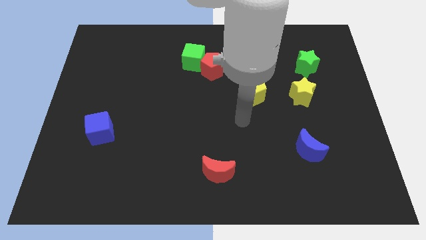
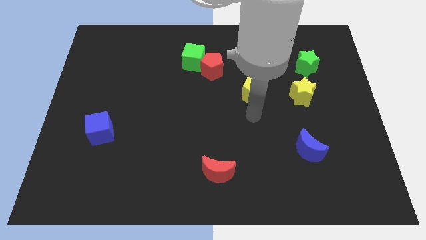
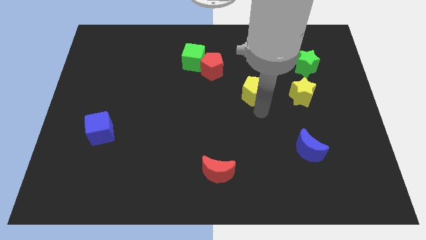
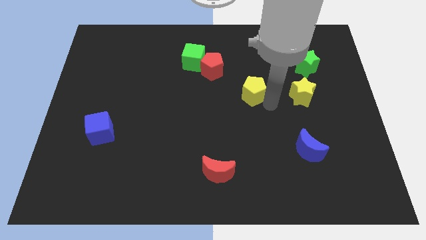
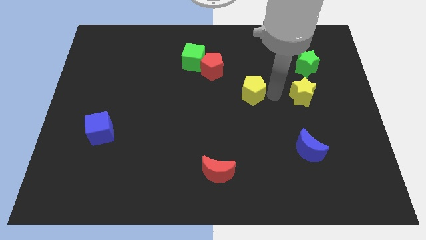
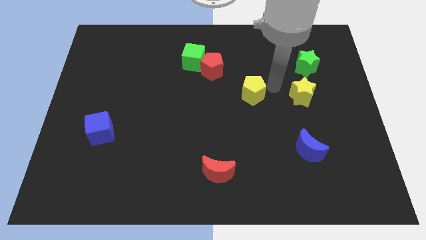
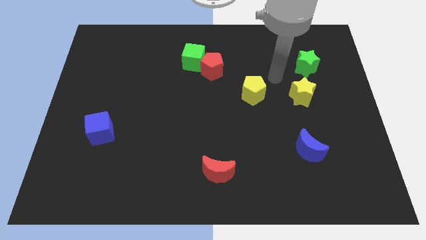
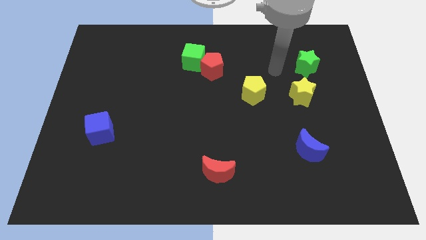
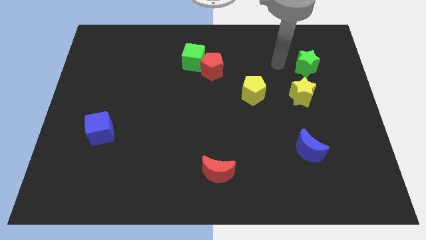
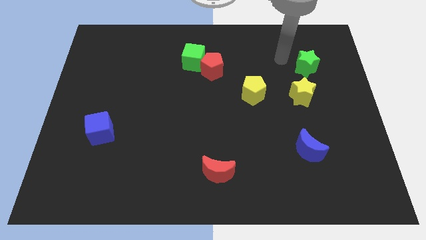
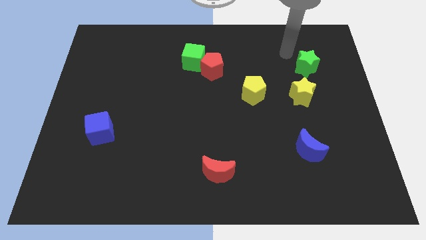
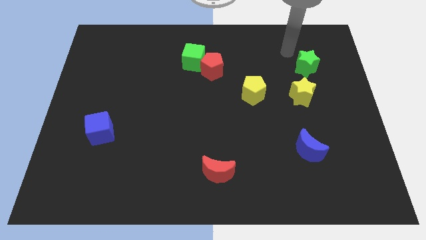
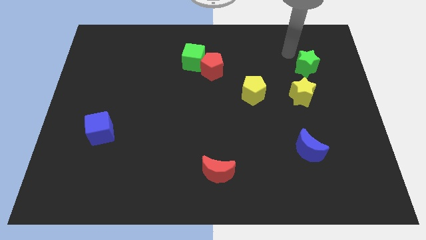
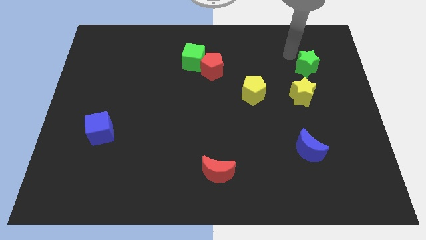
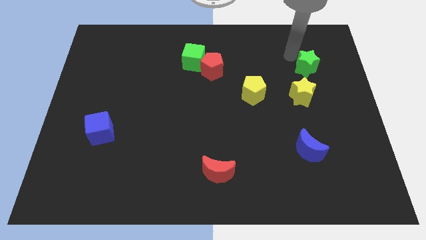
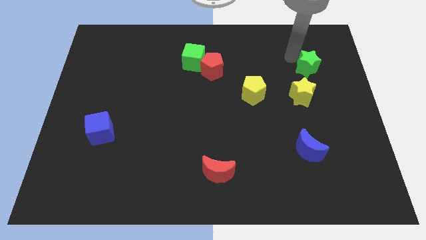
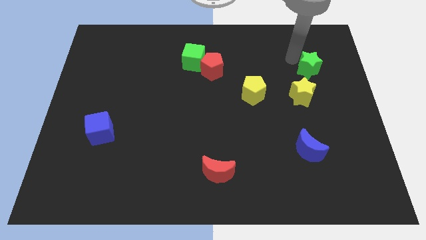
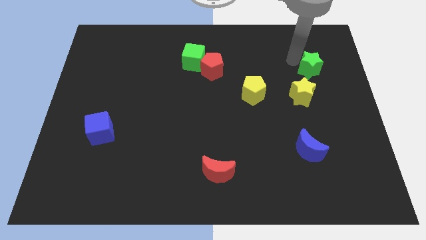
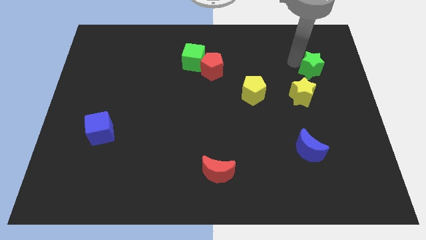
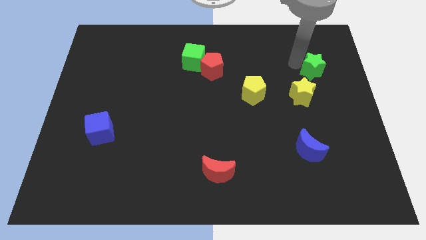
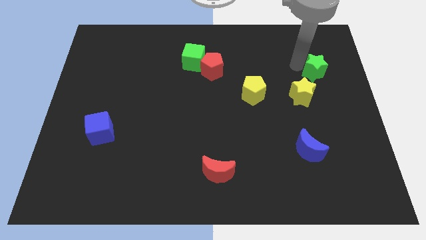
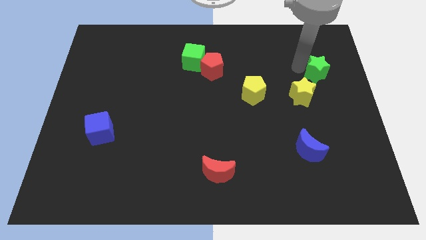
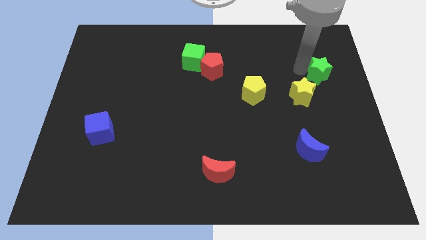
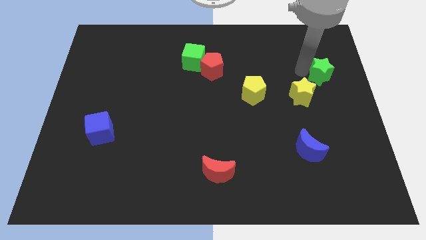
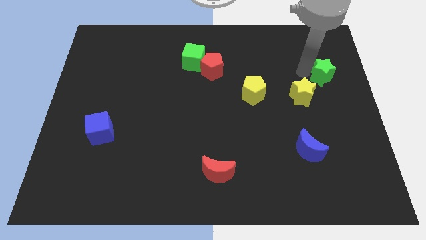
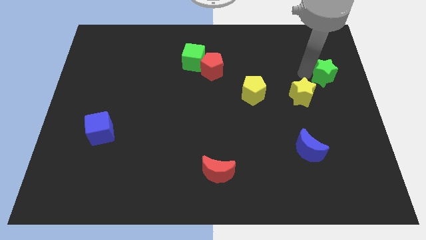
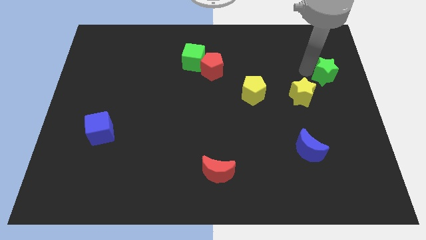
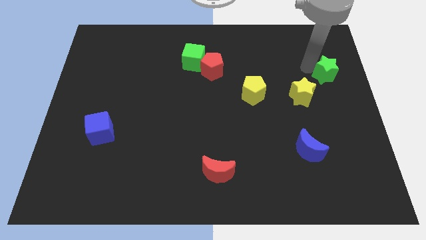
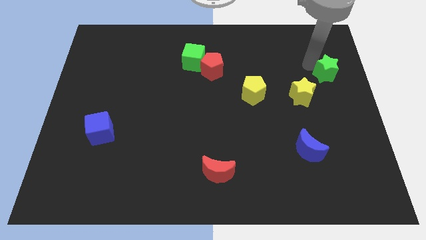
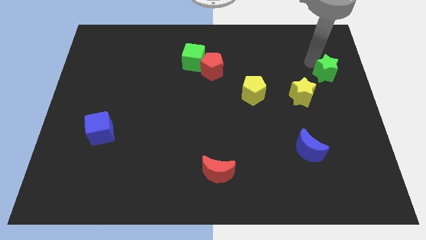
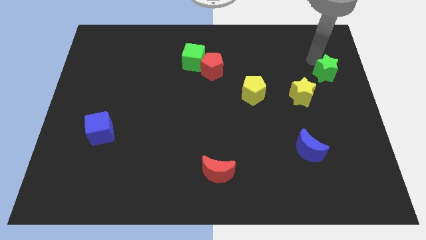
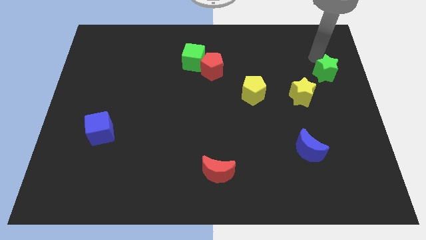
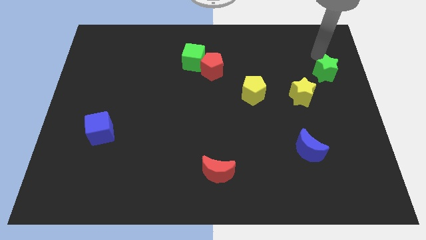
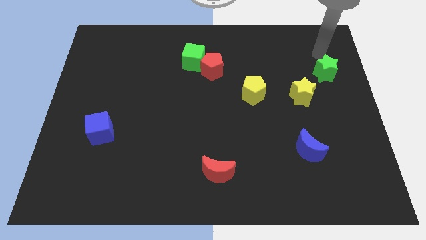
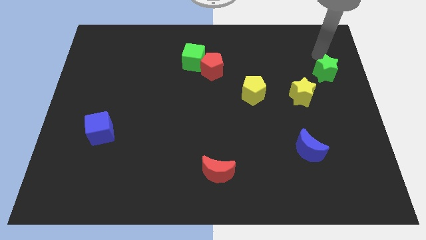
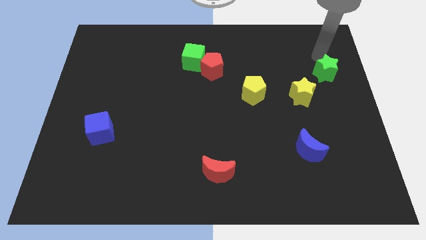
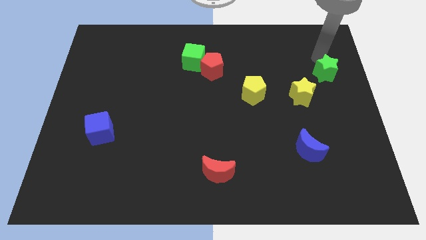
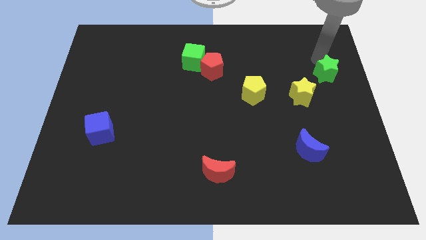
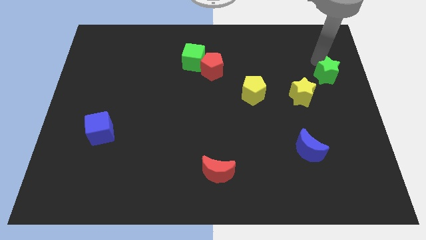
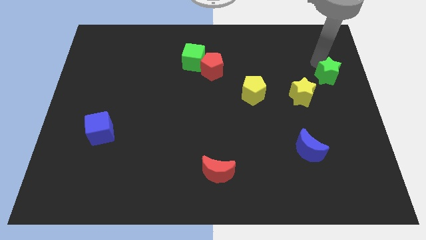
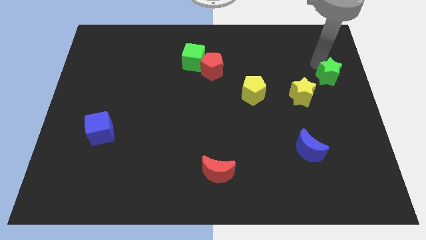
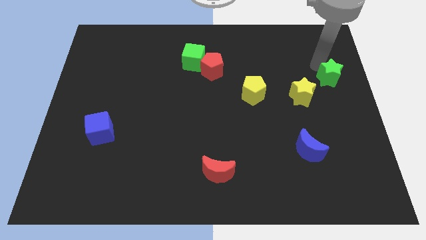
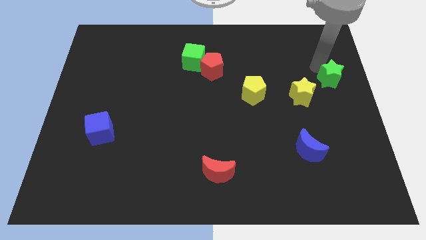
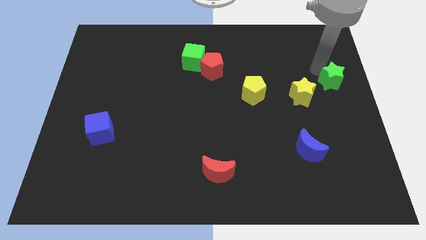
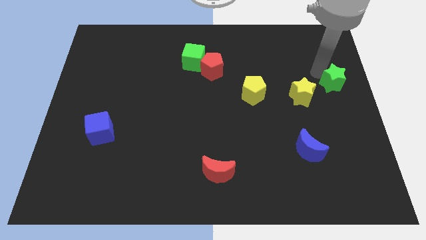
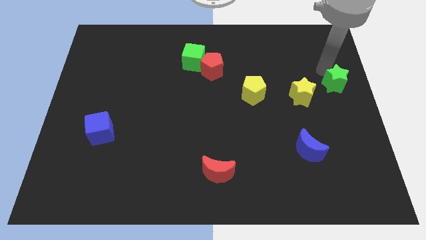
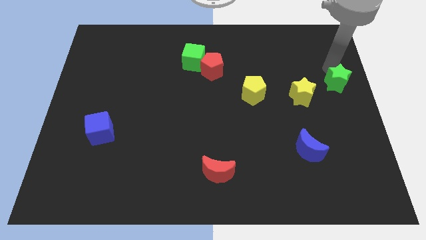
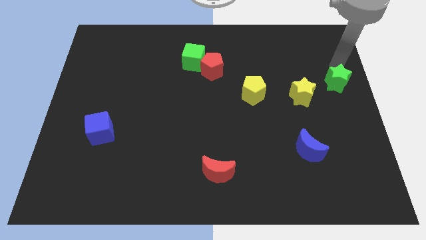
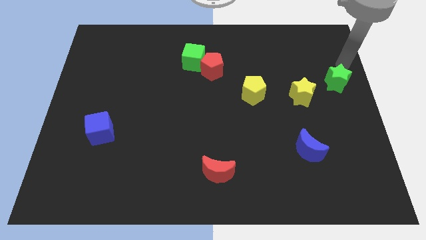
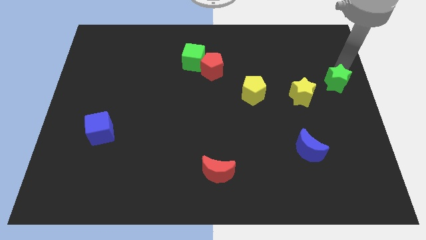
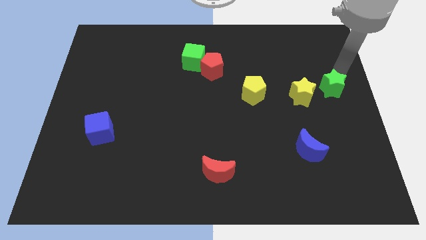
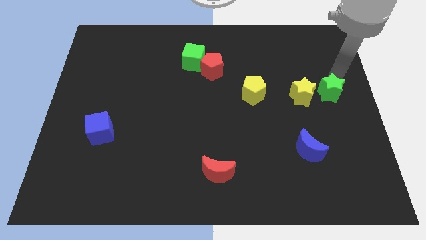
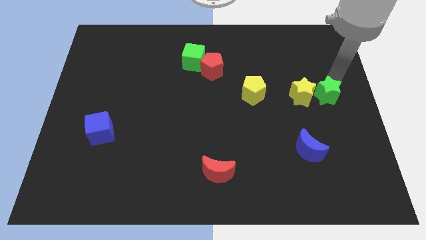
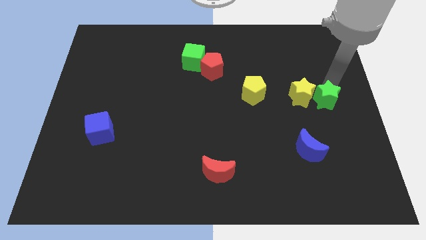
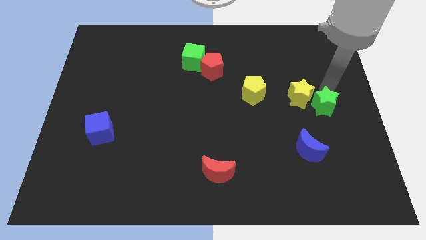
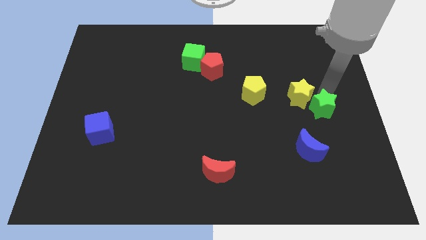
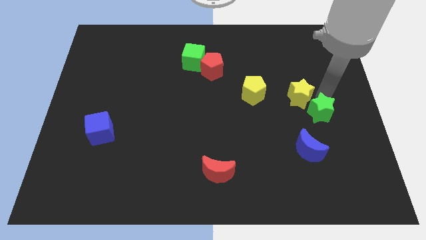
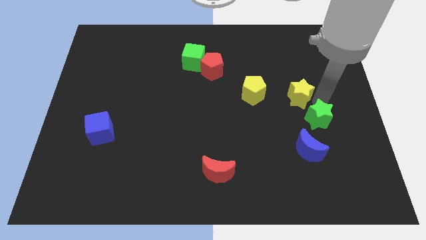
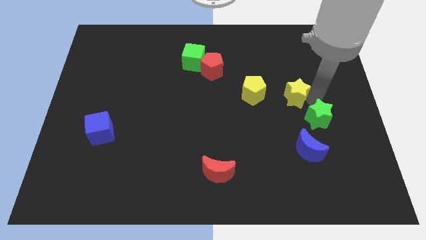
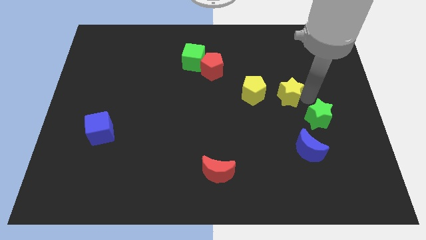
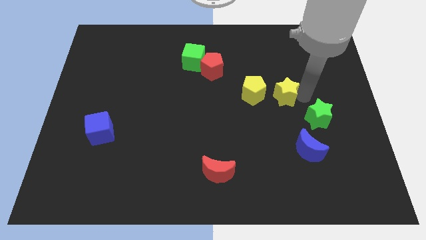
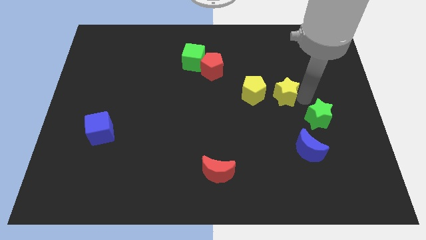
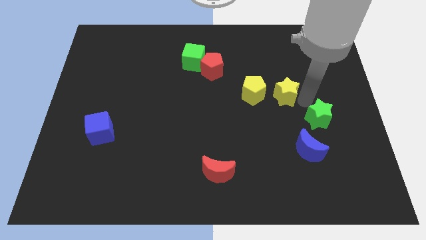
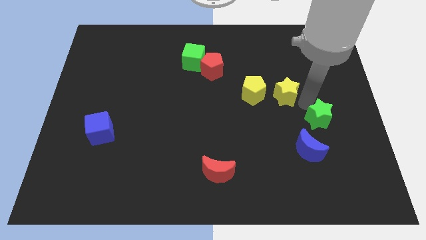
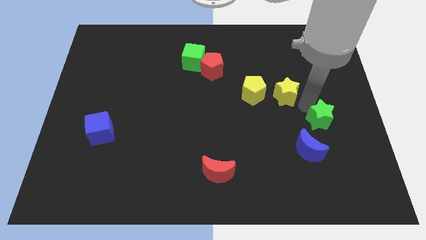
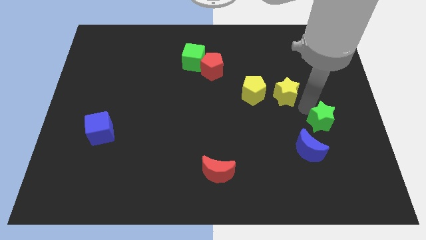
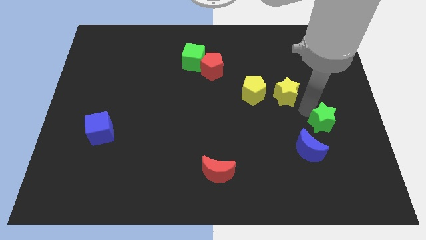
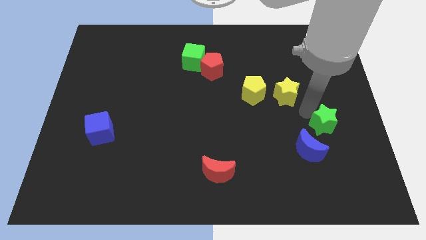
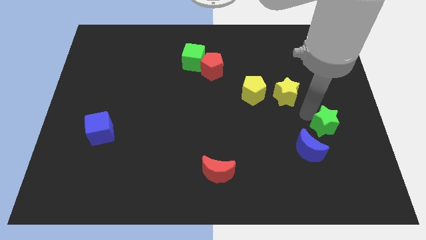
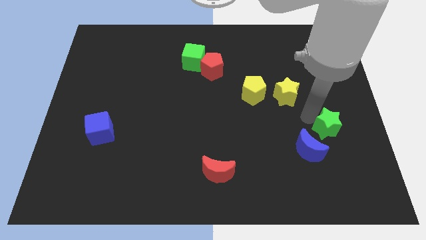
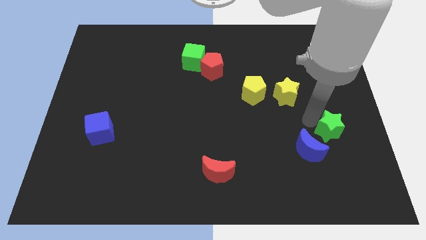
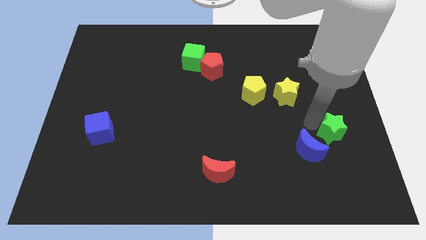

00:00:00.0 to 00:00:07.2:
push the green star down

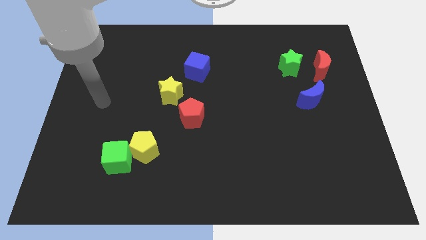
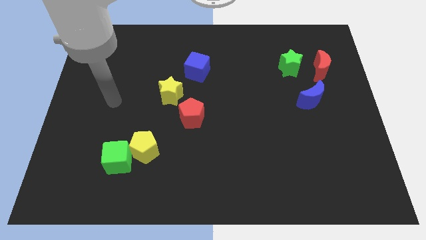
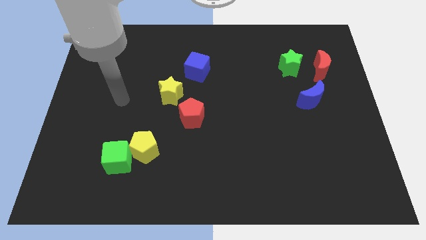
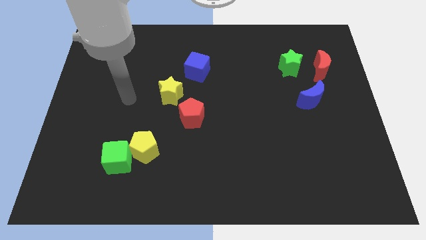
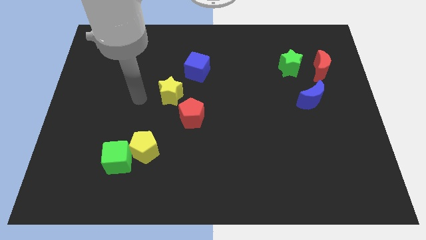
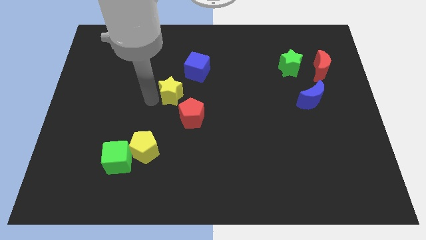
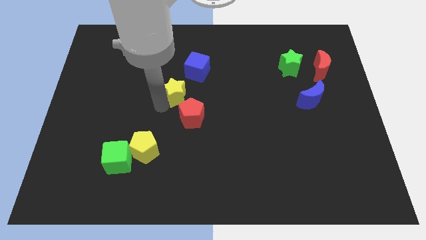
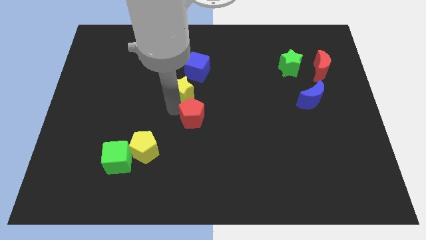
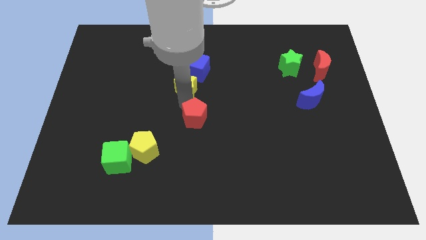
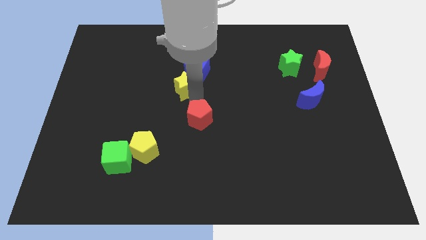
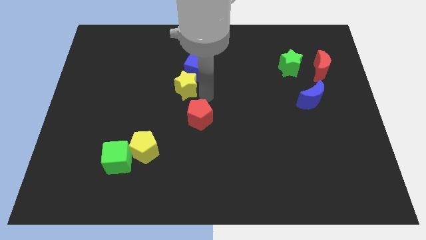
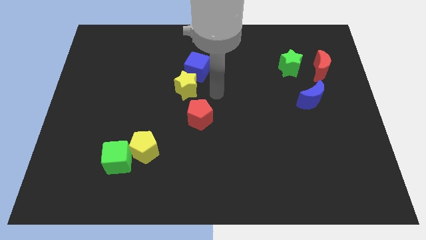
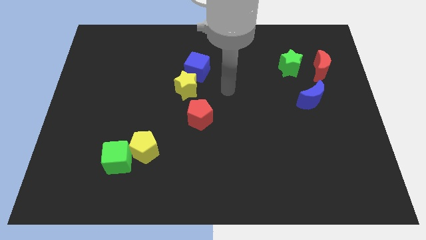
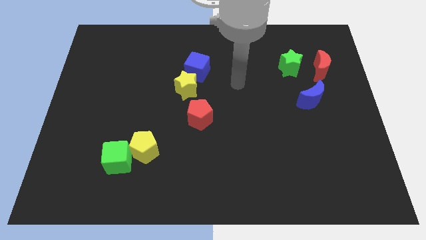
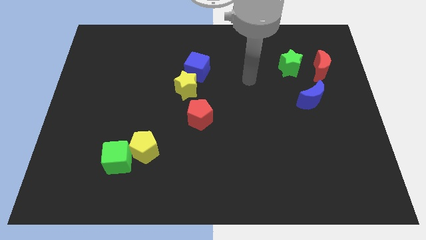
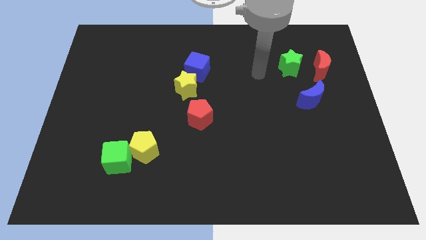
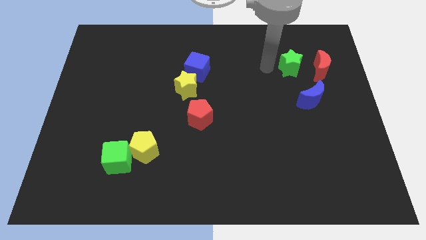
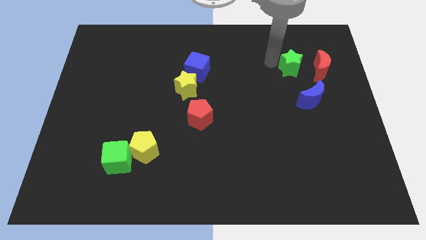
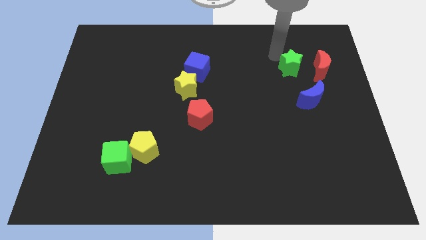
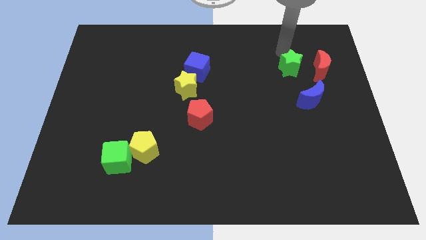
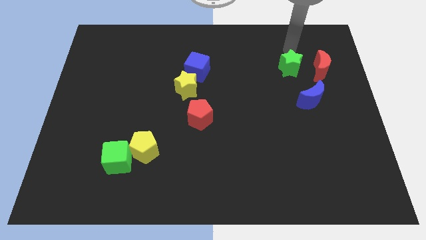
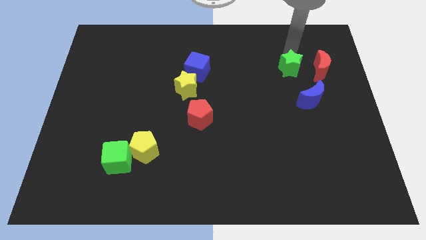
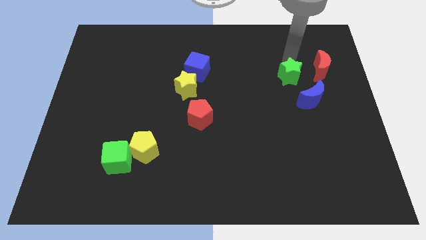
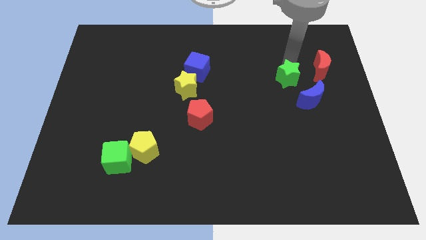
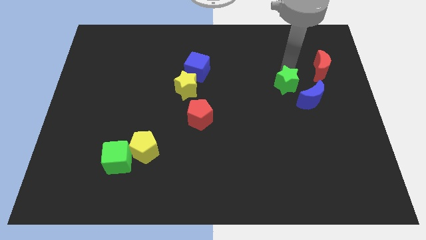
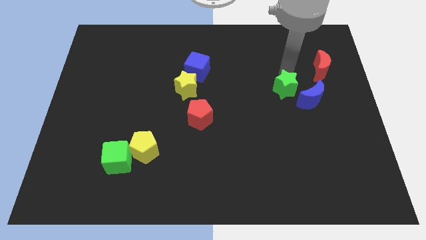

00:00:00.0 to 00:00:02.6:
move the green star down a bit
